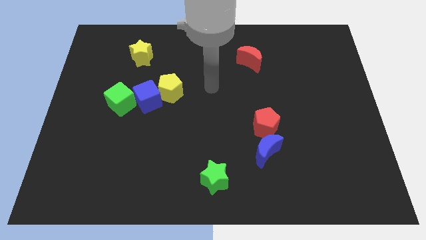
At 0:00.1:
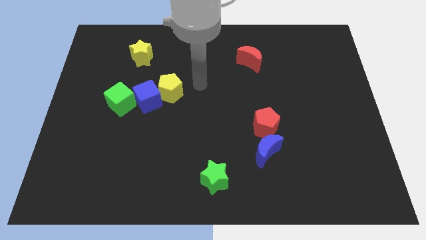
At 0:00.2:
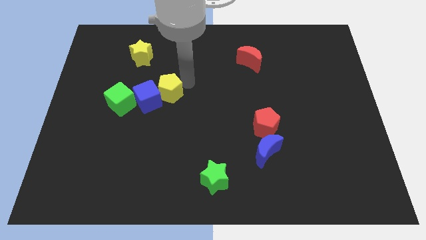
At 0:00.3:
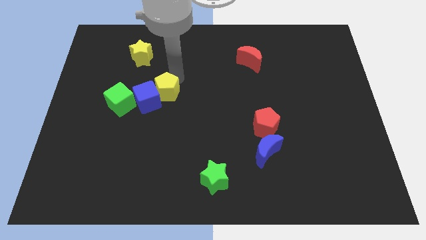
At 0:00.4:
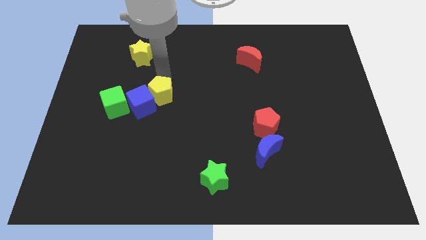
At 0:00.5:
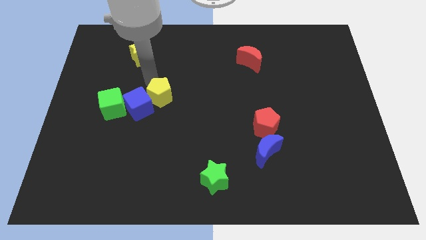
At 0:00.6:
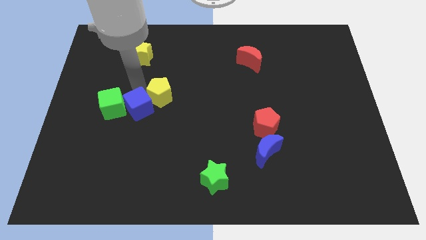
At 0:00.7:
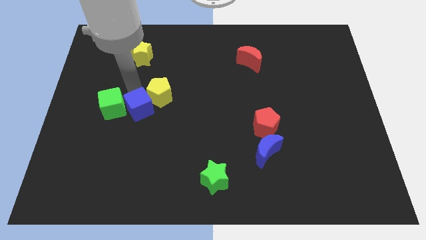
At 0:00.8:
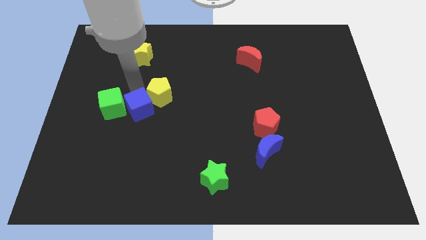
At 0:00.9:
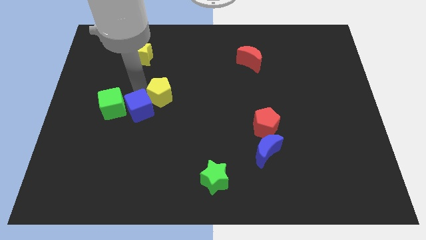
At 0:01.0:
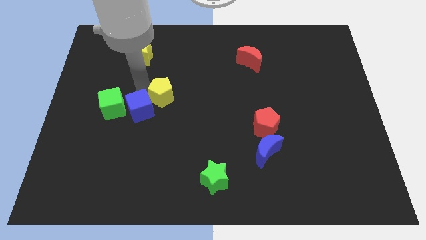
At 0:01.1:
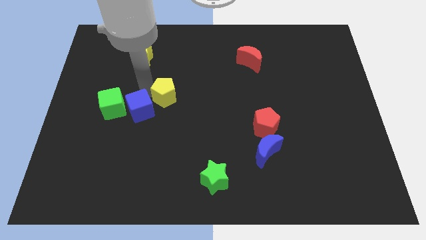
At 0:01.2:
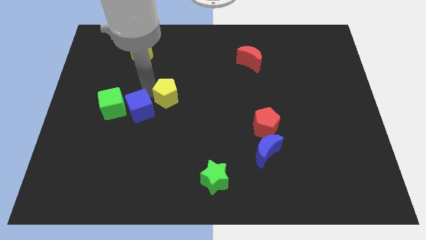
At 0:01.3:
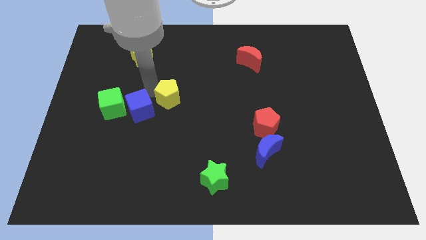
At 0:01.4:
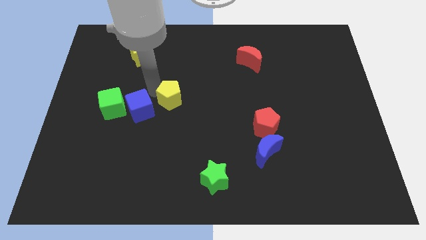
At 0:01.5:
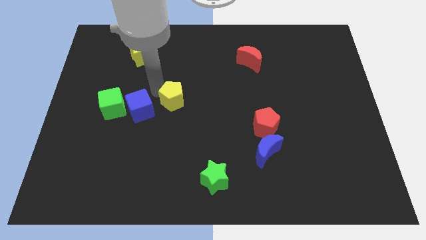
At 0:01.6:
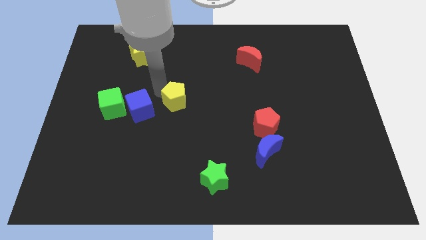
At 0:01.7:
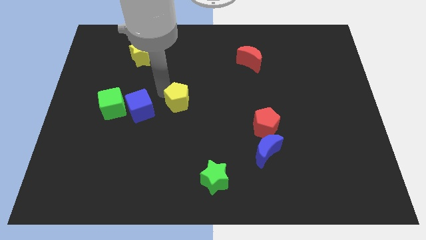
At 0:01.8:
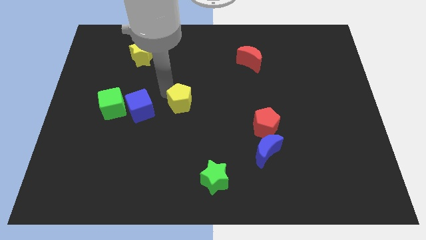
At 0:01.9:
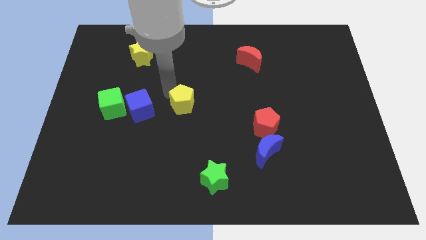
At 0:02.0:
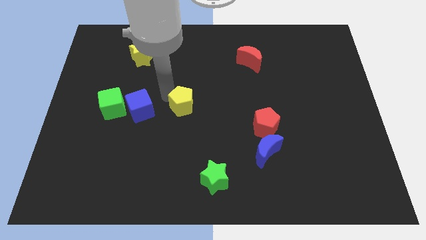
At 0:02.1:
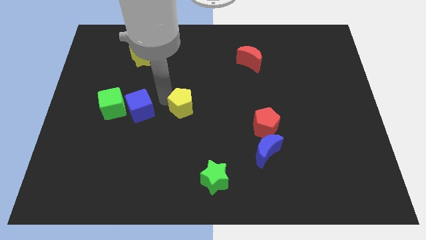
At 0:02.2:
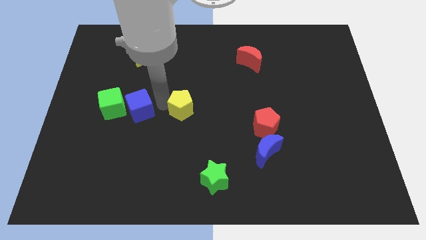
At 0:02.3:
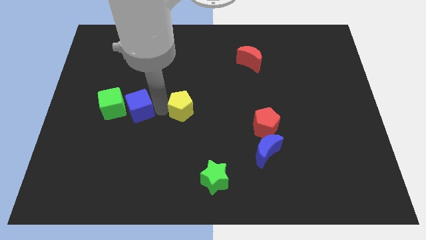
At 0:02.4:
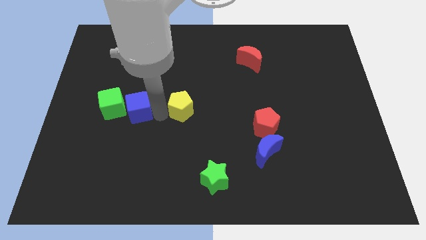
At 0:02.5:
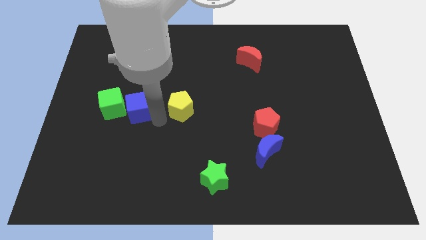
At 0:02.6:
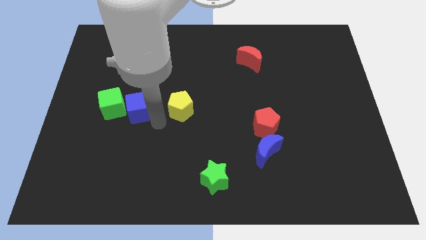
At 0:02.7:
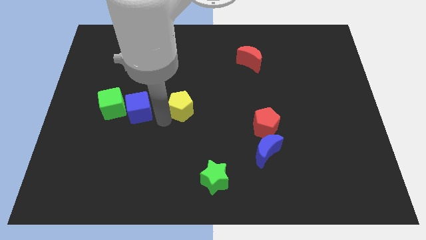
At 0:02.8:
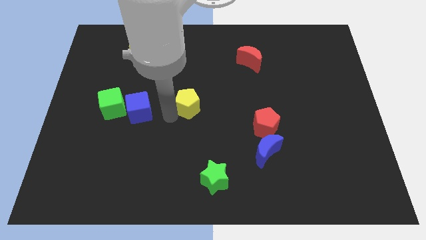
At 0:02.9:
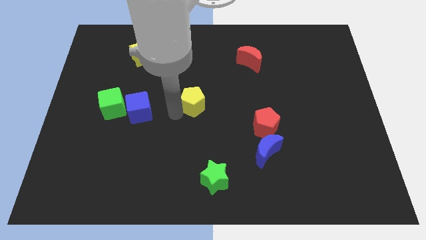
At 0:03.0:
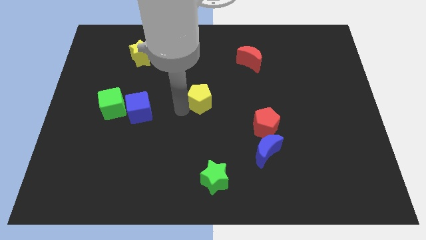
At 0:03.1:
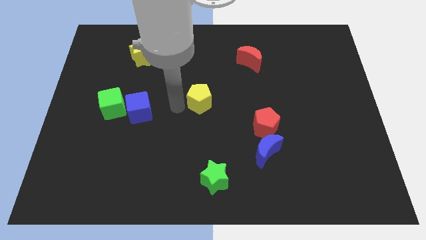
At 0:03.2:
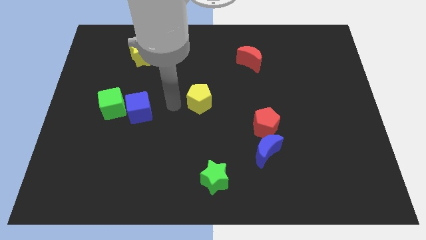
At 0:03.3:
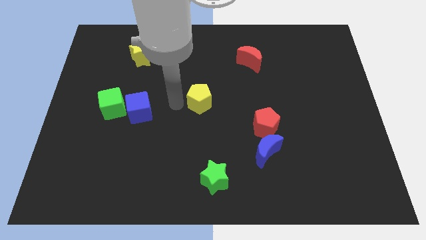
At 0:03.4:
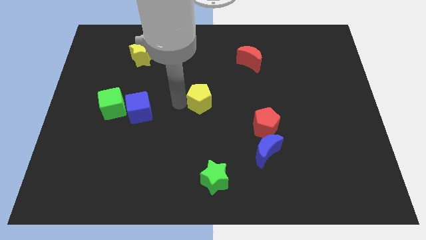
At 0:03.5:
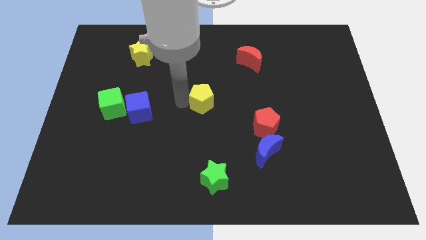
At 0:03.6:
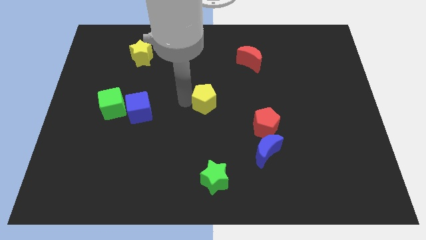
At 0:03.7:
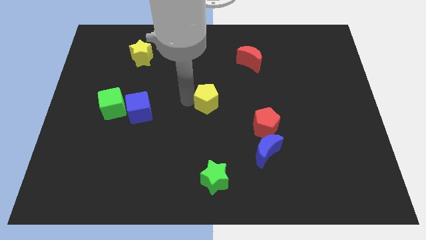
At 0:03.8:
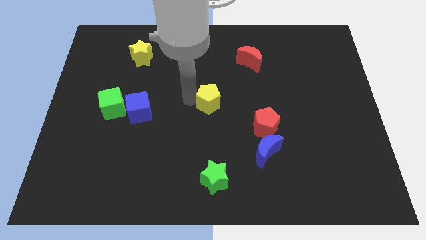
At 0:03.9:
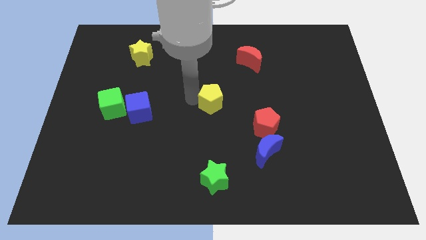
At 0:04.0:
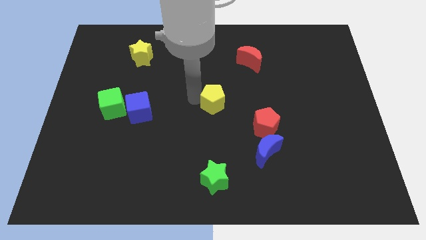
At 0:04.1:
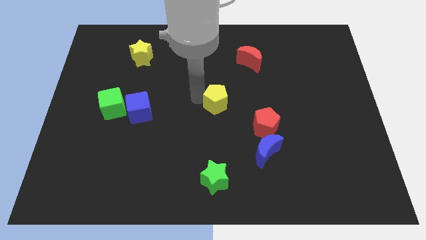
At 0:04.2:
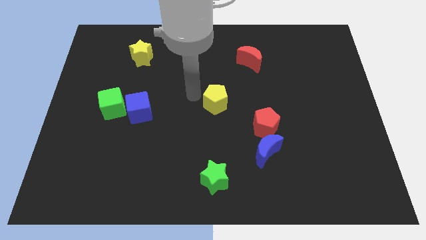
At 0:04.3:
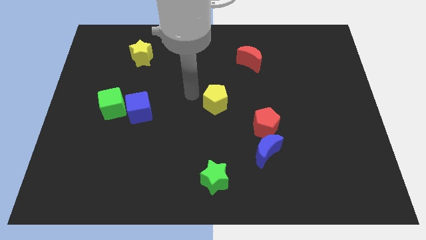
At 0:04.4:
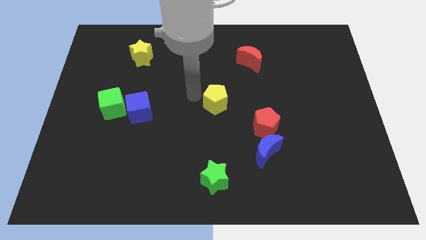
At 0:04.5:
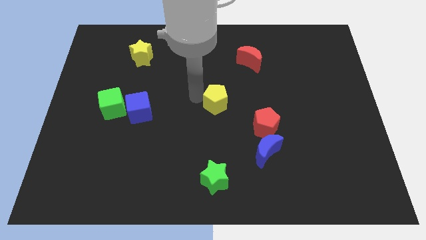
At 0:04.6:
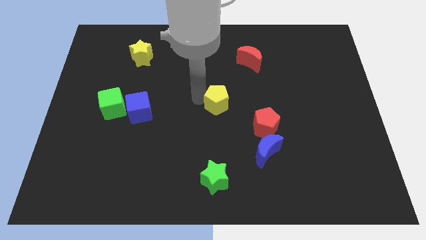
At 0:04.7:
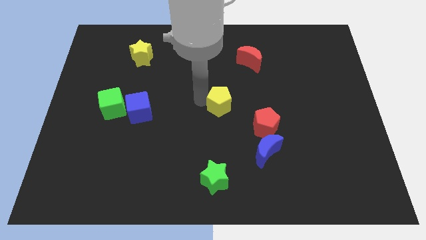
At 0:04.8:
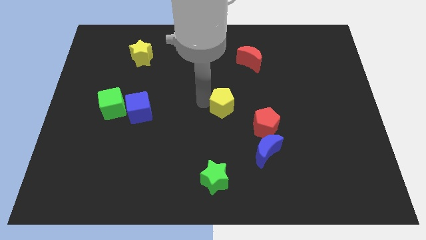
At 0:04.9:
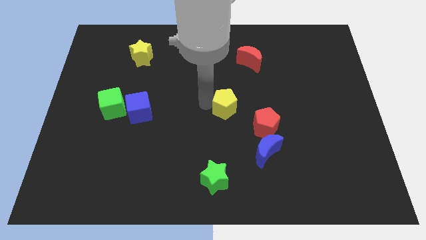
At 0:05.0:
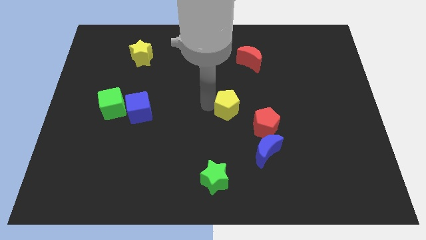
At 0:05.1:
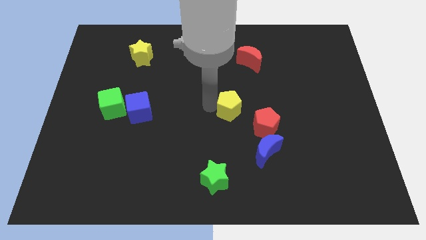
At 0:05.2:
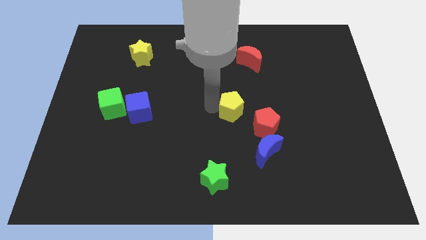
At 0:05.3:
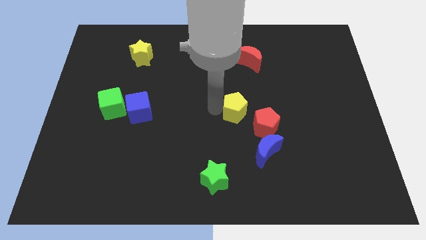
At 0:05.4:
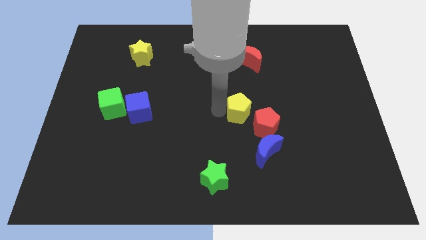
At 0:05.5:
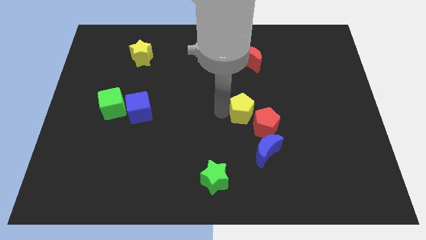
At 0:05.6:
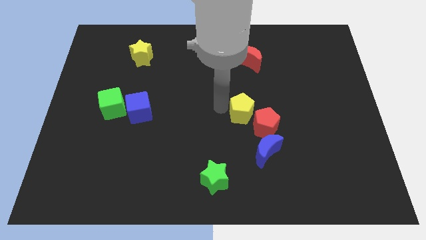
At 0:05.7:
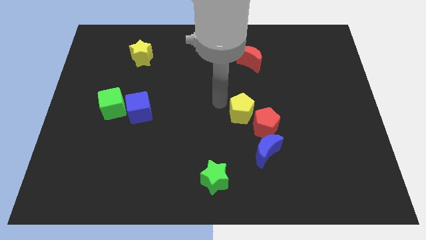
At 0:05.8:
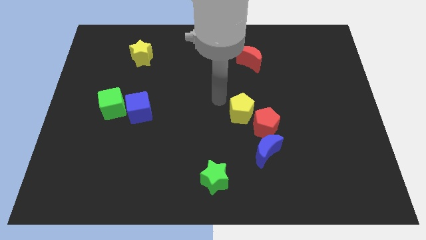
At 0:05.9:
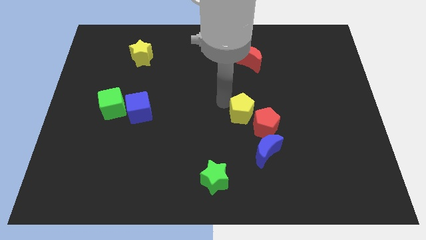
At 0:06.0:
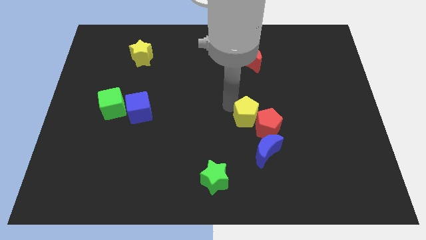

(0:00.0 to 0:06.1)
move the yellow pentagon to the red pentagon
